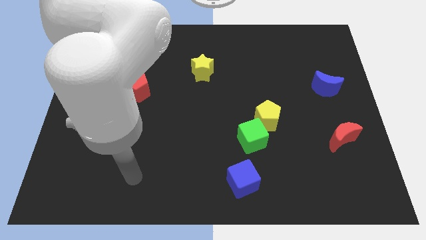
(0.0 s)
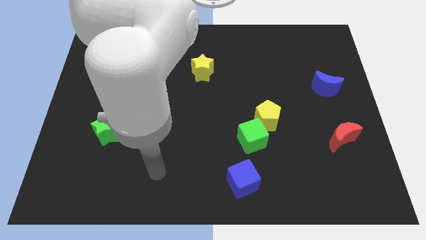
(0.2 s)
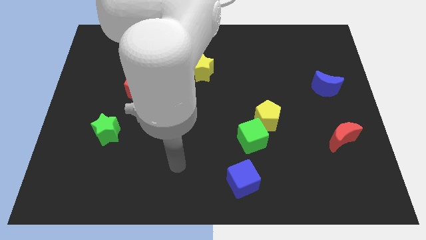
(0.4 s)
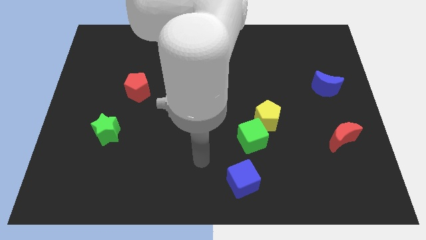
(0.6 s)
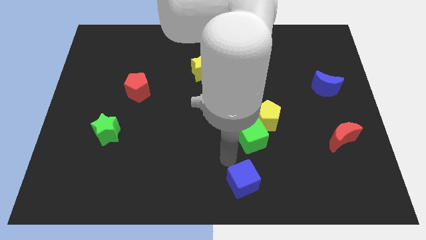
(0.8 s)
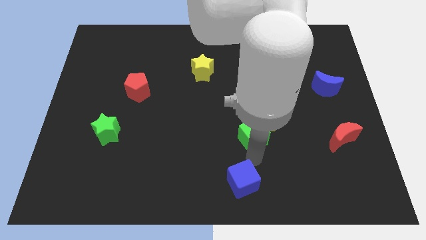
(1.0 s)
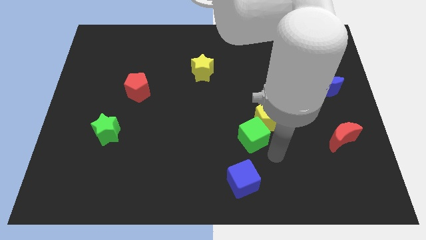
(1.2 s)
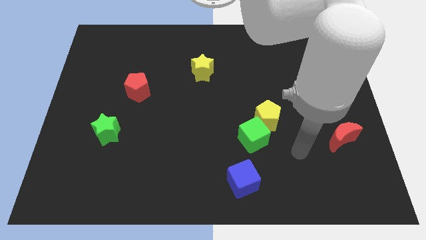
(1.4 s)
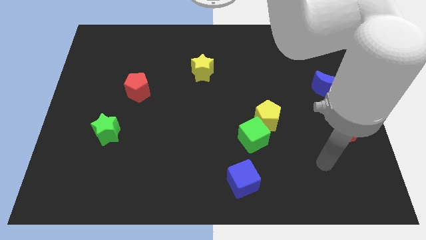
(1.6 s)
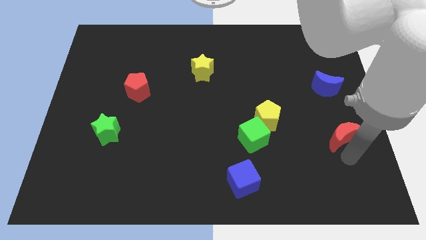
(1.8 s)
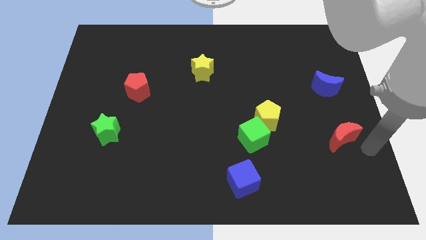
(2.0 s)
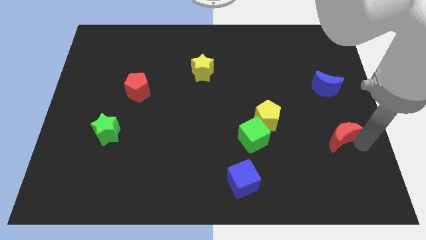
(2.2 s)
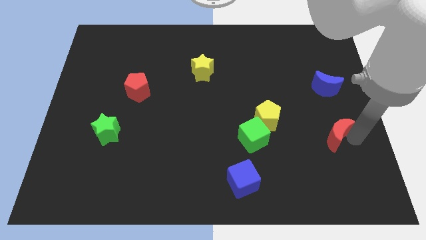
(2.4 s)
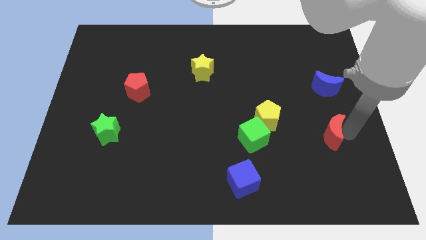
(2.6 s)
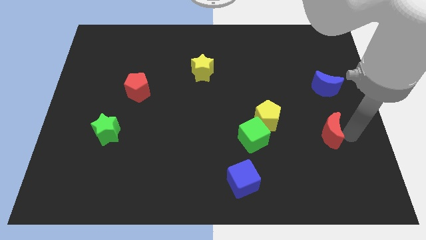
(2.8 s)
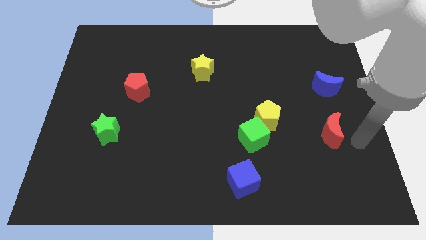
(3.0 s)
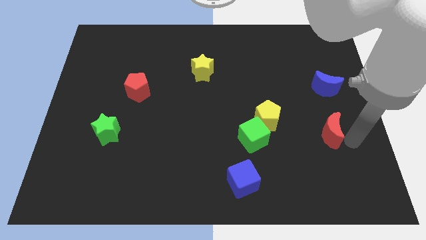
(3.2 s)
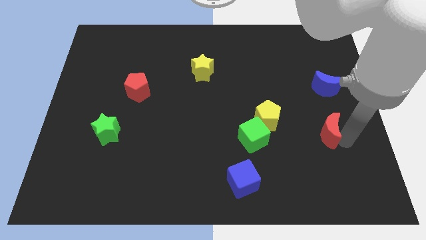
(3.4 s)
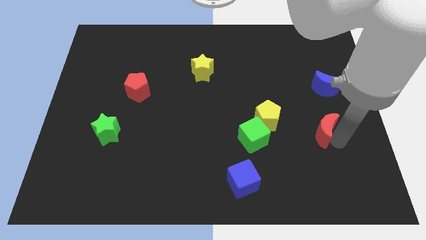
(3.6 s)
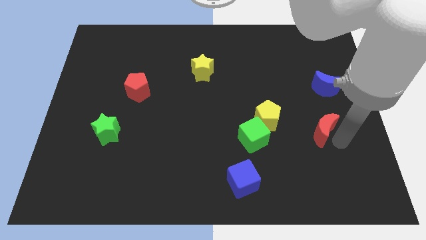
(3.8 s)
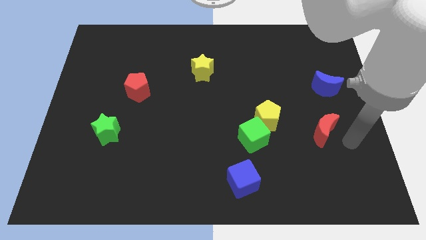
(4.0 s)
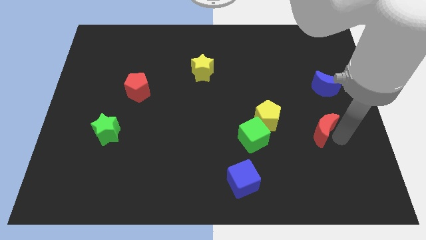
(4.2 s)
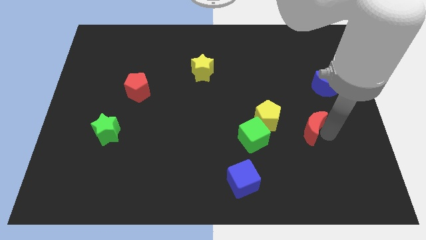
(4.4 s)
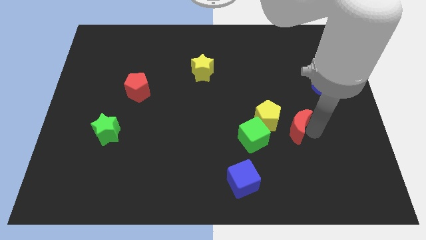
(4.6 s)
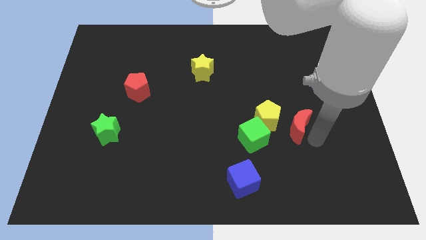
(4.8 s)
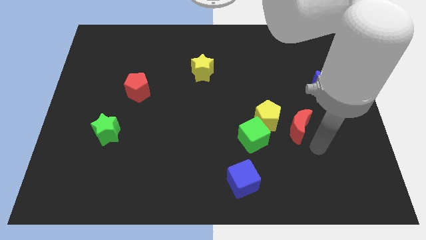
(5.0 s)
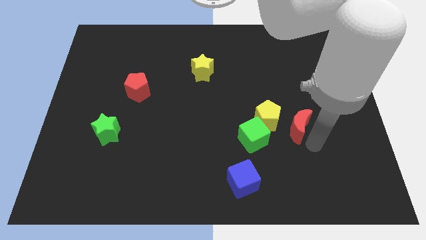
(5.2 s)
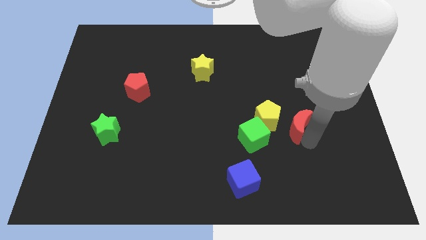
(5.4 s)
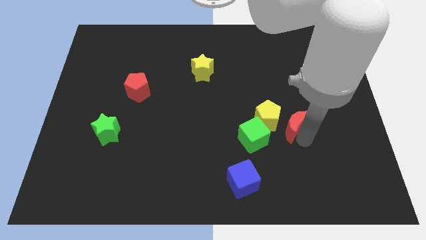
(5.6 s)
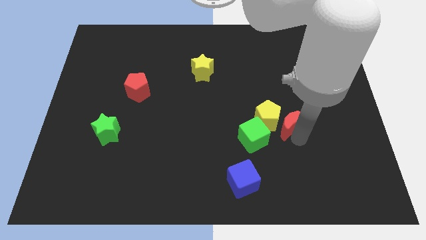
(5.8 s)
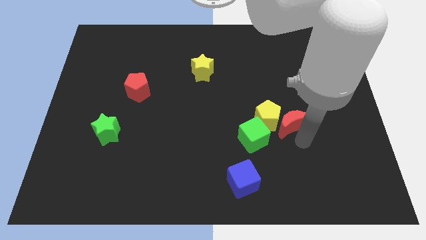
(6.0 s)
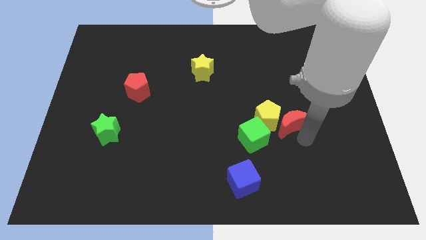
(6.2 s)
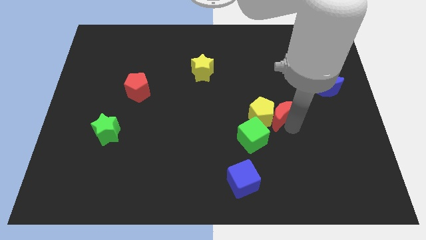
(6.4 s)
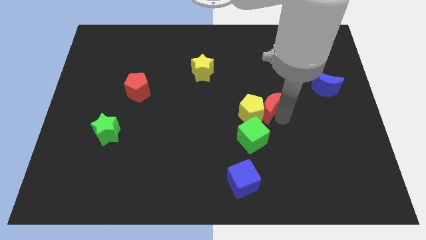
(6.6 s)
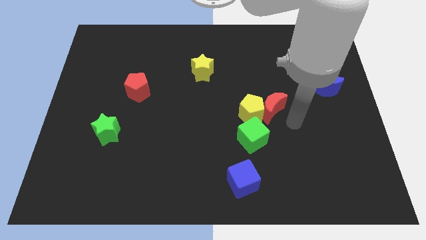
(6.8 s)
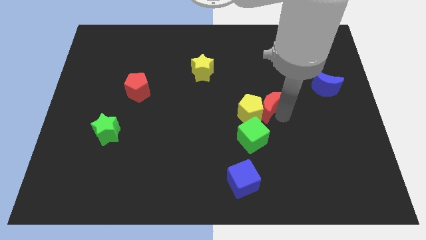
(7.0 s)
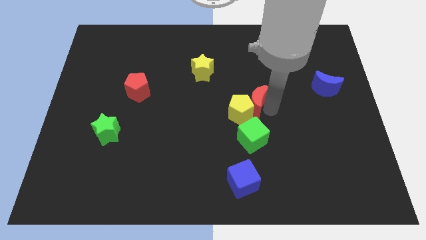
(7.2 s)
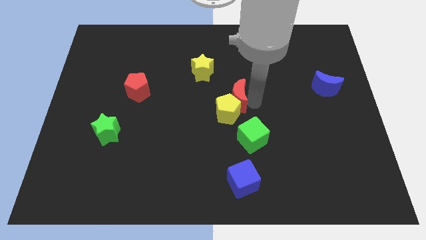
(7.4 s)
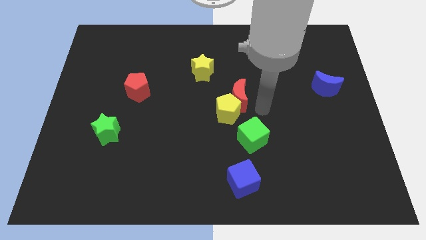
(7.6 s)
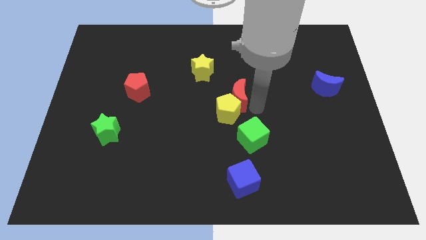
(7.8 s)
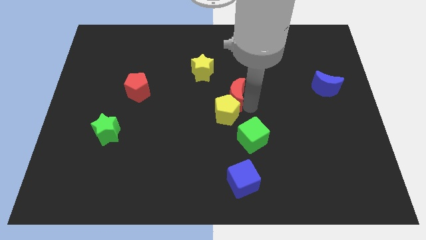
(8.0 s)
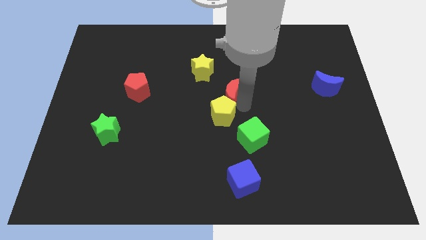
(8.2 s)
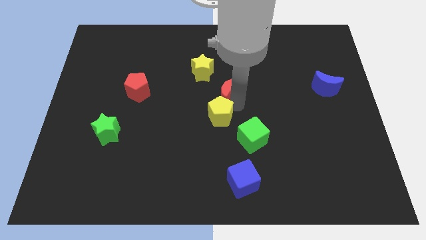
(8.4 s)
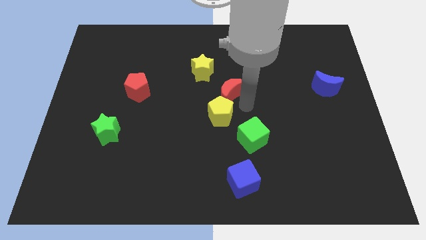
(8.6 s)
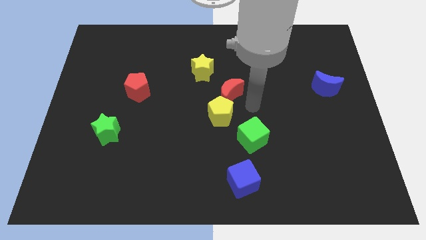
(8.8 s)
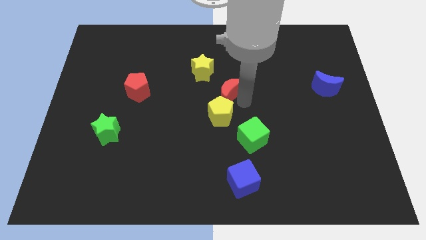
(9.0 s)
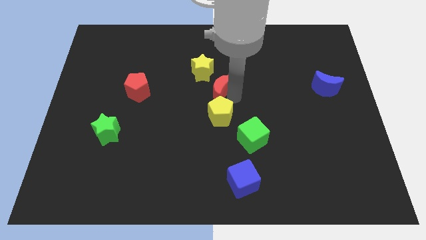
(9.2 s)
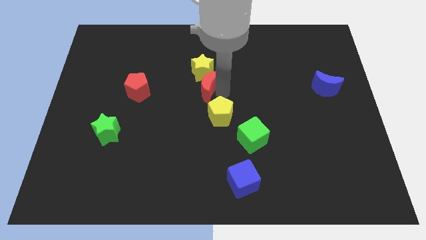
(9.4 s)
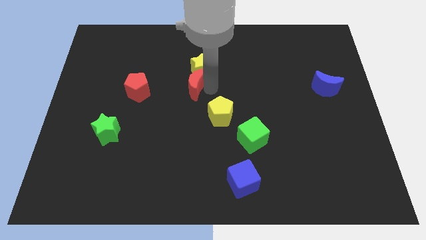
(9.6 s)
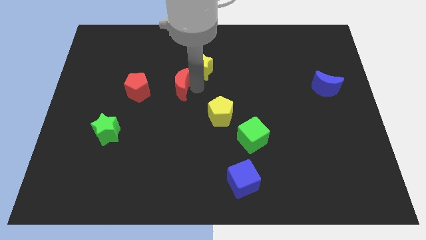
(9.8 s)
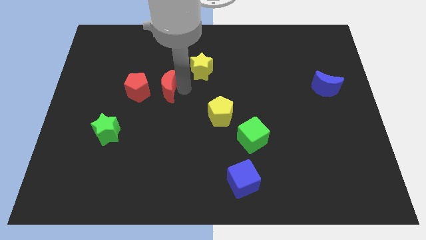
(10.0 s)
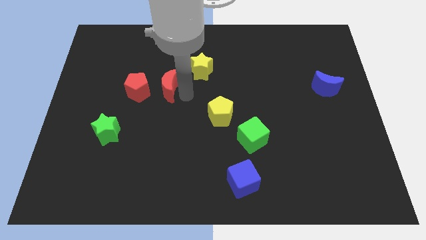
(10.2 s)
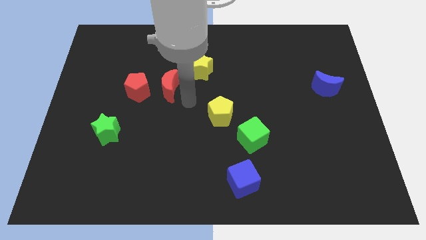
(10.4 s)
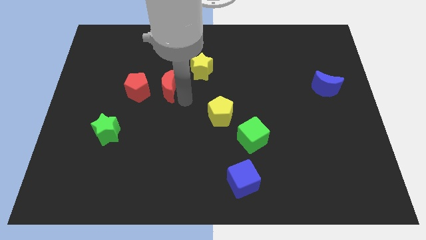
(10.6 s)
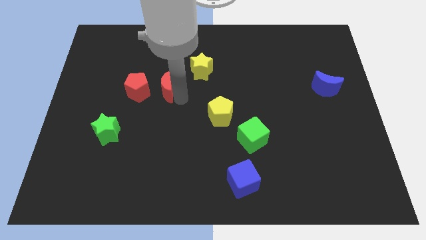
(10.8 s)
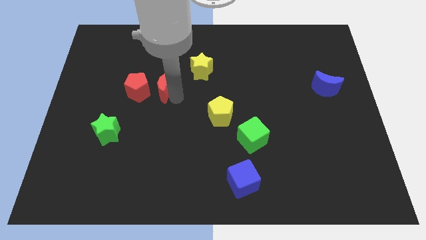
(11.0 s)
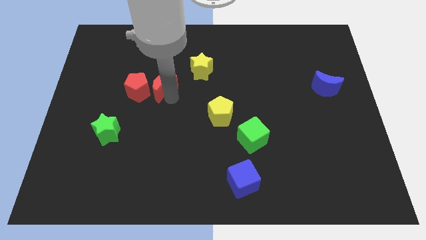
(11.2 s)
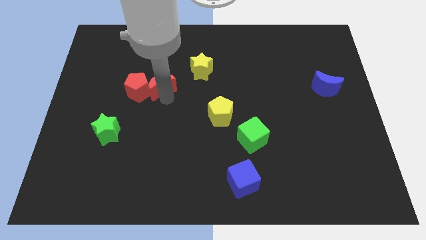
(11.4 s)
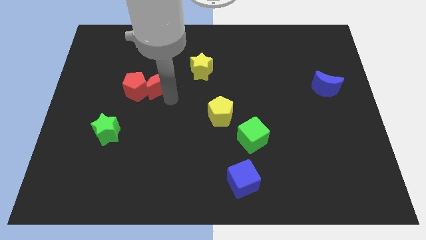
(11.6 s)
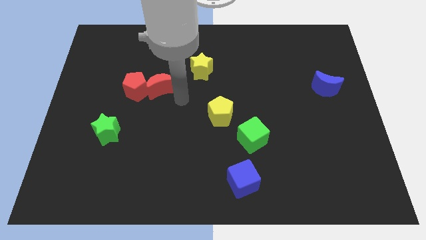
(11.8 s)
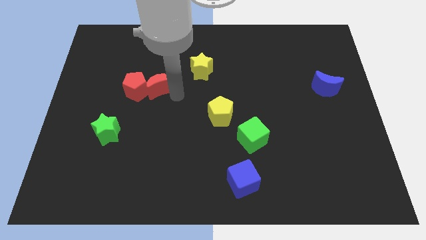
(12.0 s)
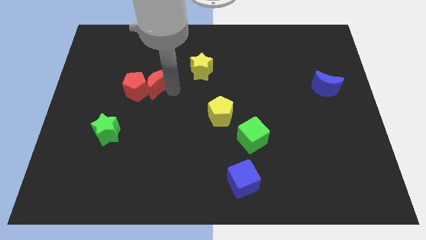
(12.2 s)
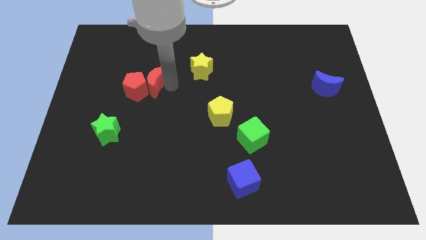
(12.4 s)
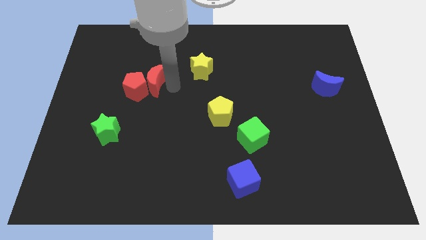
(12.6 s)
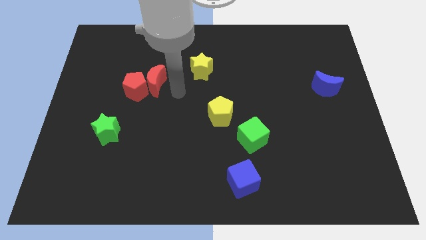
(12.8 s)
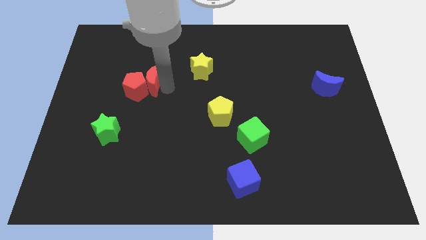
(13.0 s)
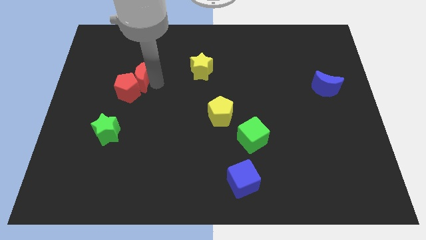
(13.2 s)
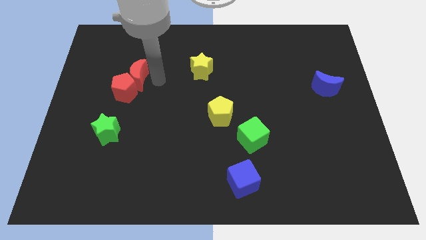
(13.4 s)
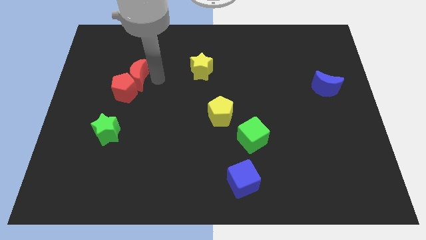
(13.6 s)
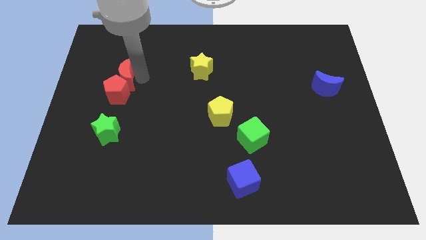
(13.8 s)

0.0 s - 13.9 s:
move the red moon diagonally up and to the left of the red pentagon
